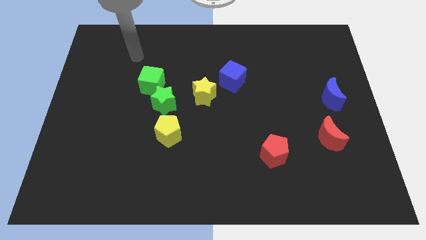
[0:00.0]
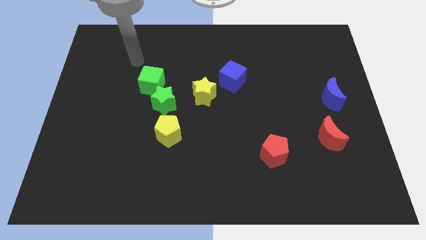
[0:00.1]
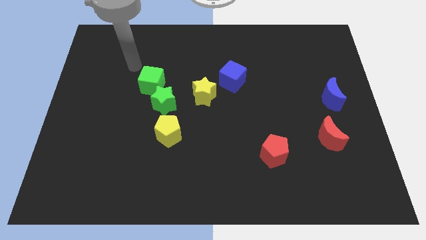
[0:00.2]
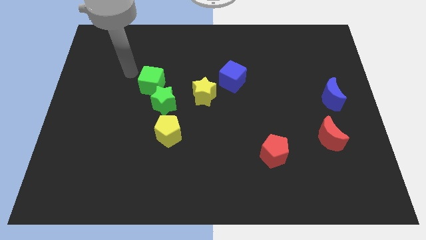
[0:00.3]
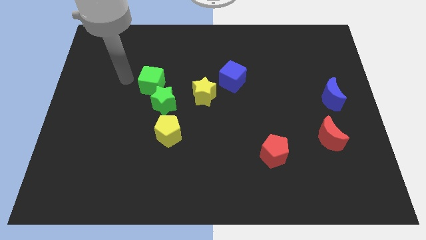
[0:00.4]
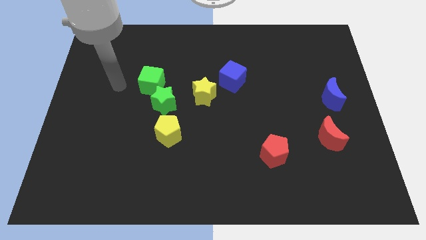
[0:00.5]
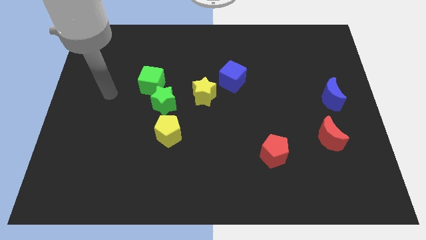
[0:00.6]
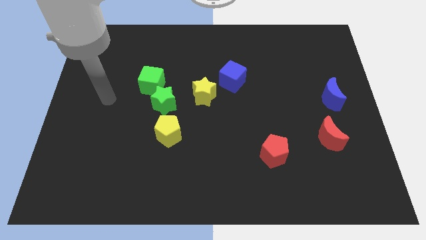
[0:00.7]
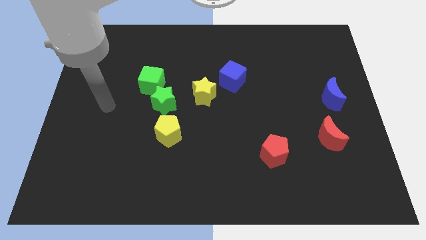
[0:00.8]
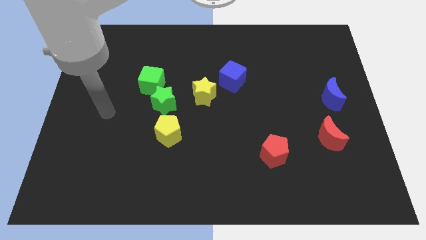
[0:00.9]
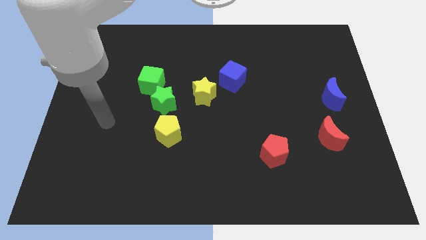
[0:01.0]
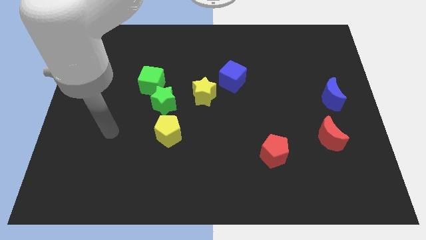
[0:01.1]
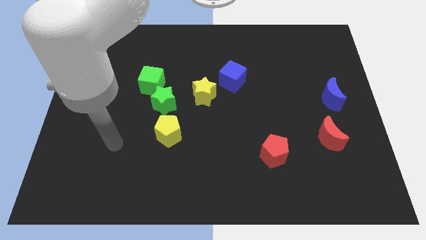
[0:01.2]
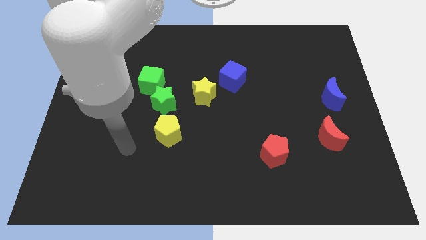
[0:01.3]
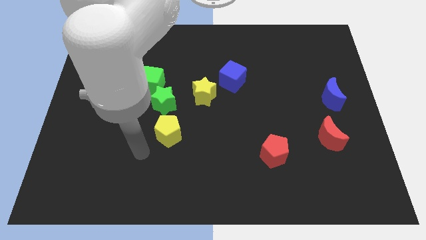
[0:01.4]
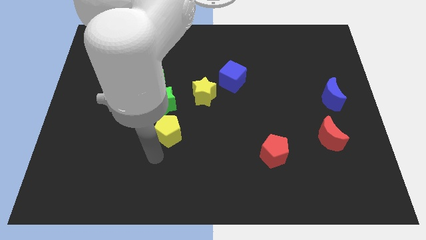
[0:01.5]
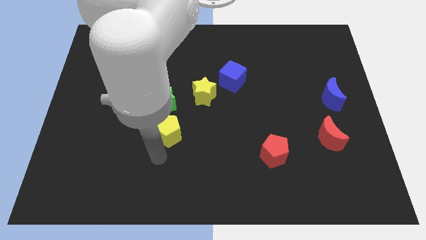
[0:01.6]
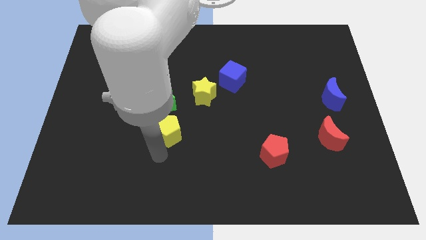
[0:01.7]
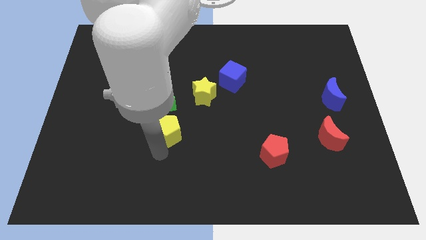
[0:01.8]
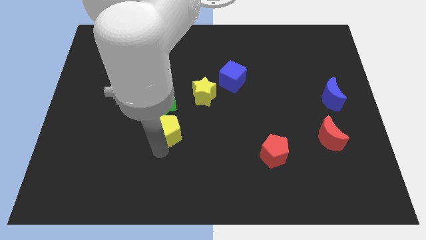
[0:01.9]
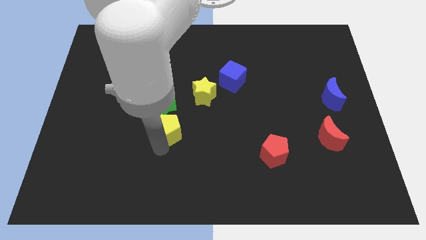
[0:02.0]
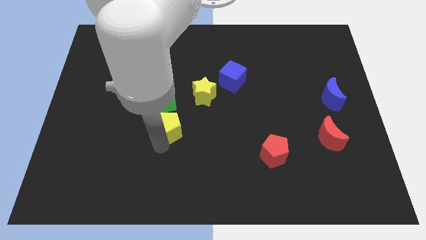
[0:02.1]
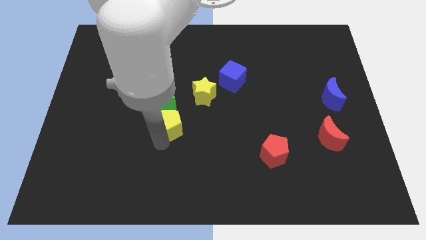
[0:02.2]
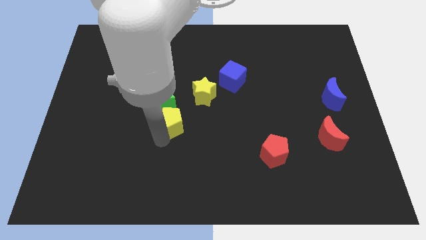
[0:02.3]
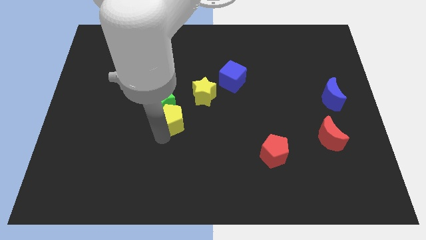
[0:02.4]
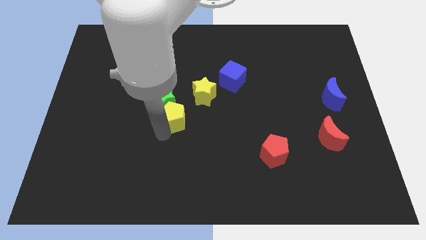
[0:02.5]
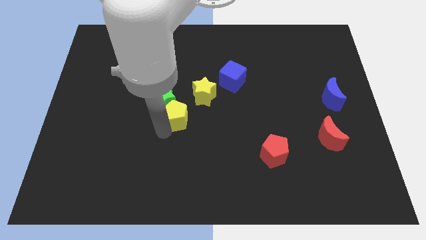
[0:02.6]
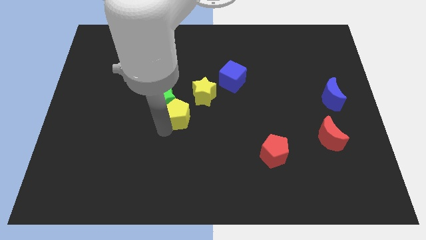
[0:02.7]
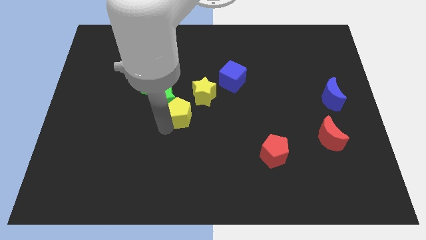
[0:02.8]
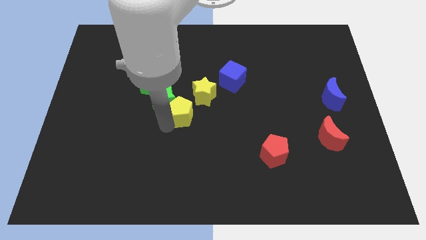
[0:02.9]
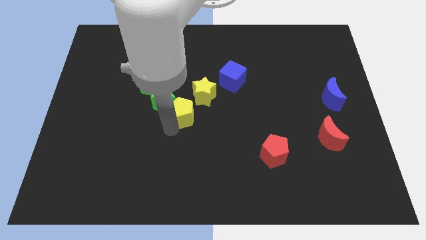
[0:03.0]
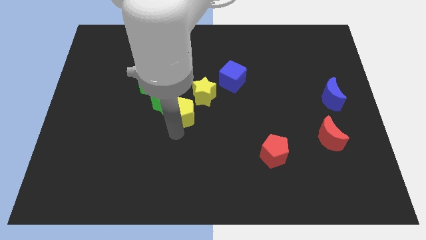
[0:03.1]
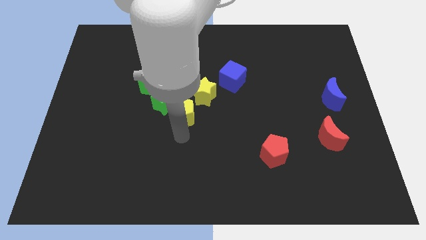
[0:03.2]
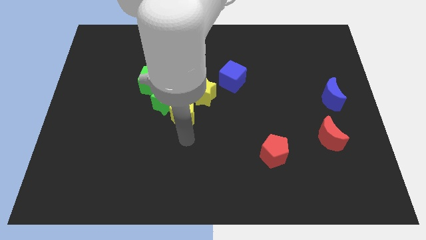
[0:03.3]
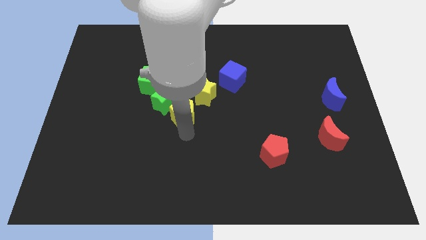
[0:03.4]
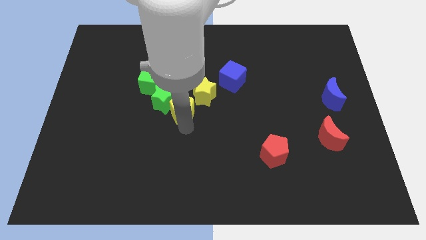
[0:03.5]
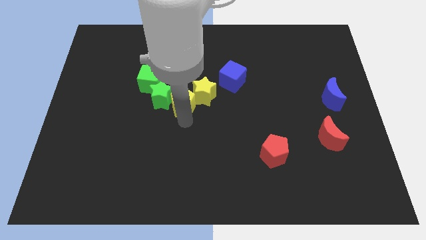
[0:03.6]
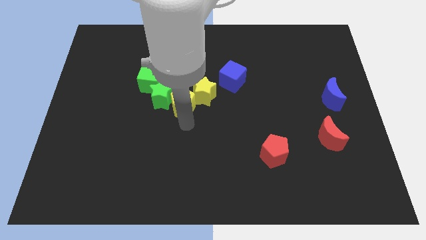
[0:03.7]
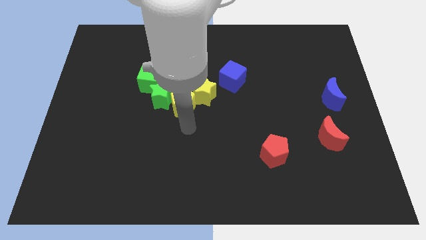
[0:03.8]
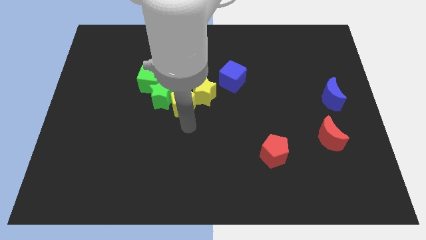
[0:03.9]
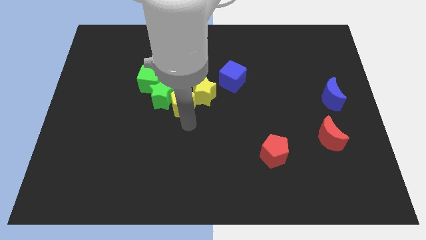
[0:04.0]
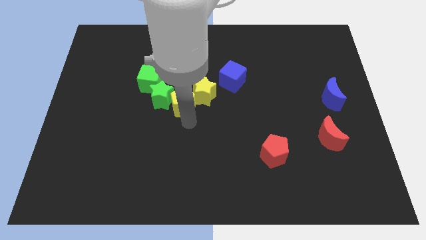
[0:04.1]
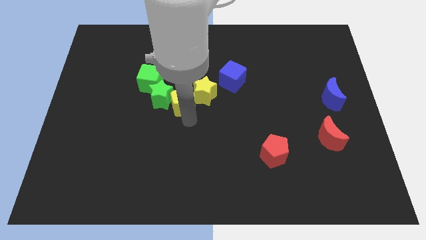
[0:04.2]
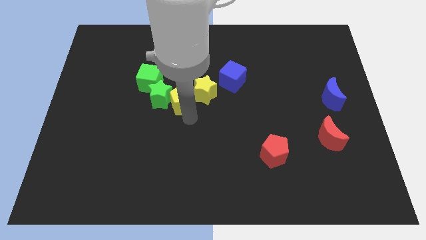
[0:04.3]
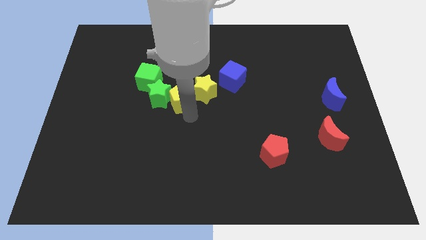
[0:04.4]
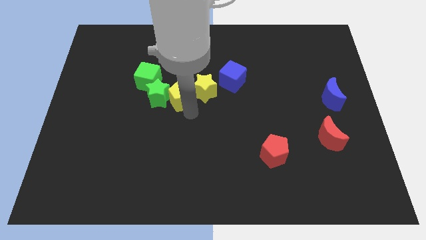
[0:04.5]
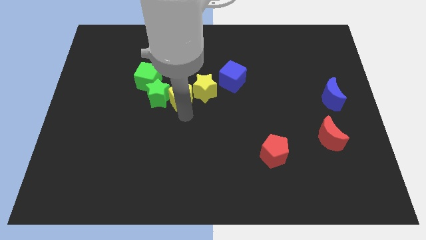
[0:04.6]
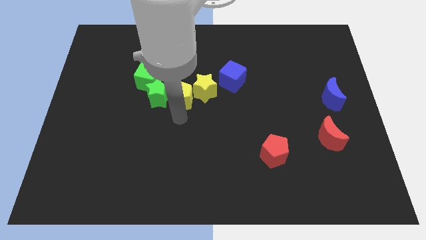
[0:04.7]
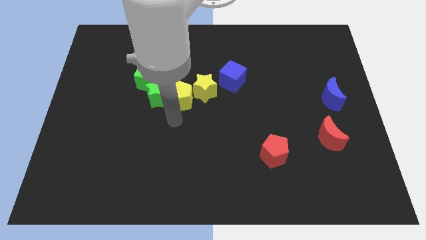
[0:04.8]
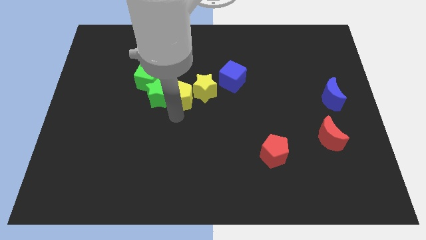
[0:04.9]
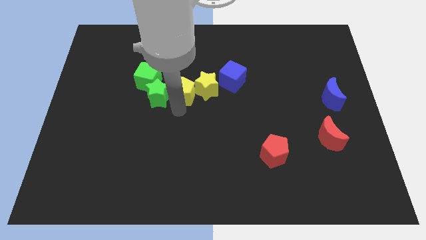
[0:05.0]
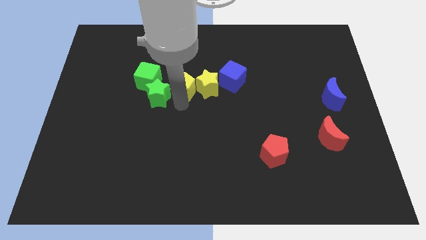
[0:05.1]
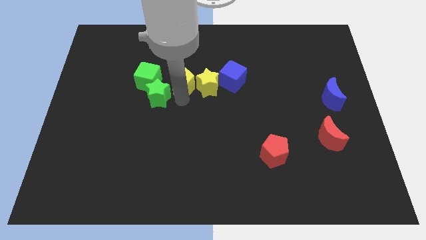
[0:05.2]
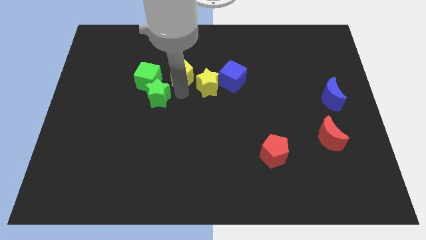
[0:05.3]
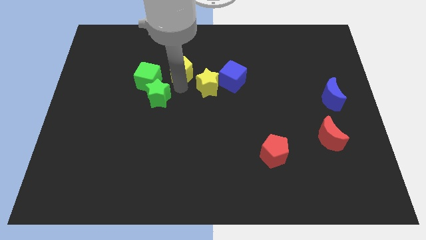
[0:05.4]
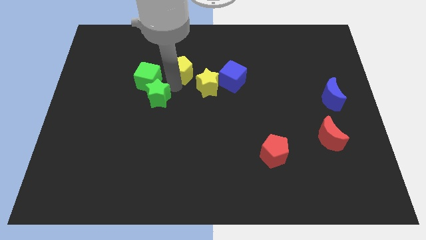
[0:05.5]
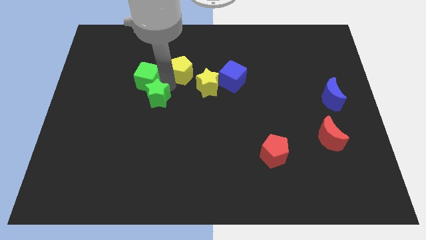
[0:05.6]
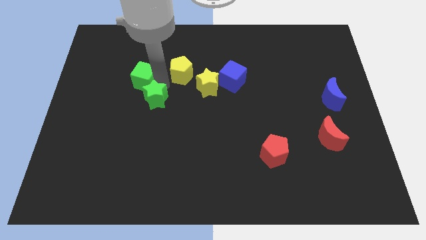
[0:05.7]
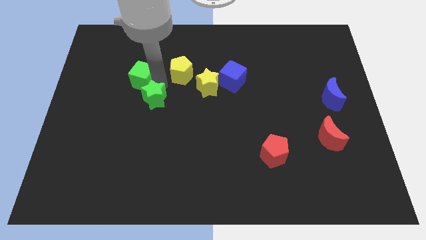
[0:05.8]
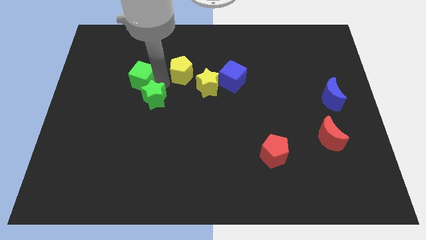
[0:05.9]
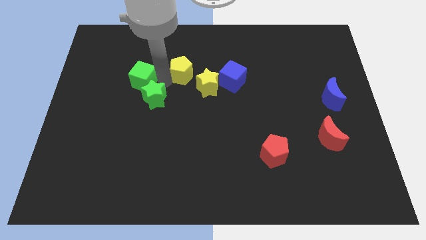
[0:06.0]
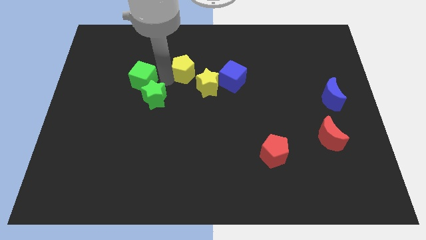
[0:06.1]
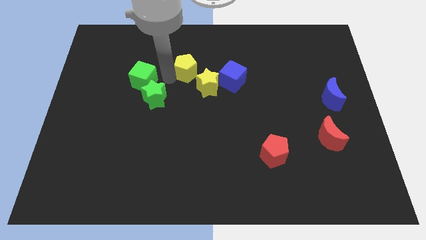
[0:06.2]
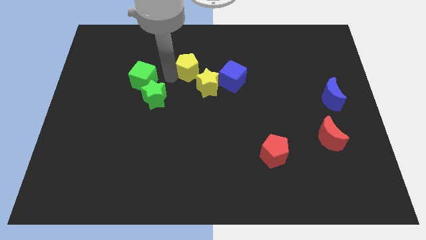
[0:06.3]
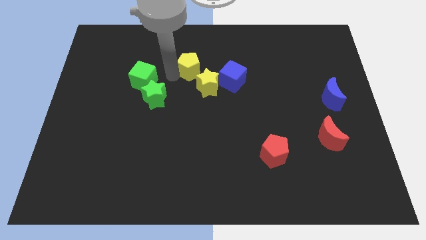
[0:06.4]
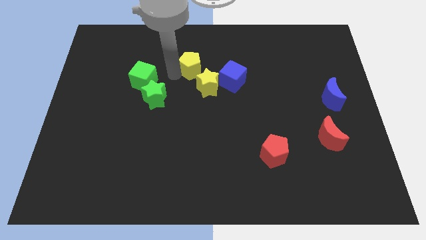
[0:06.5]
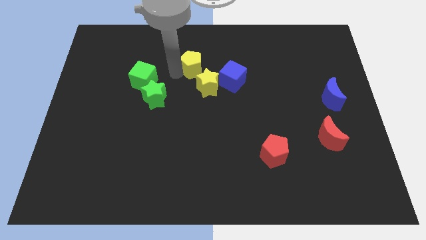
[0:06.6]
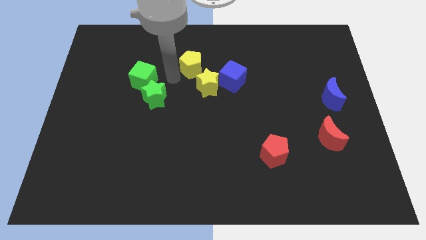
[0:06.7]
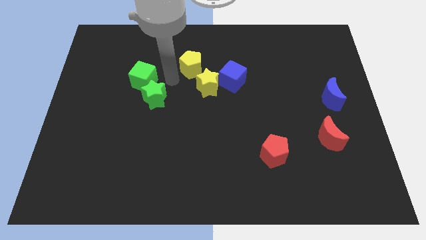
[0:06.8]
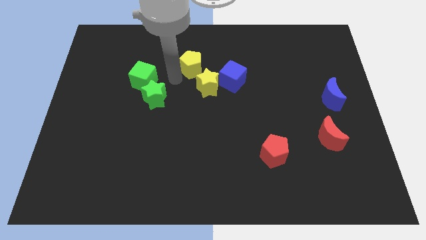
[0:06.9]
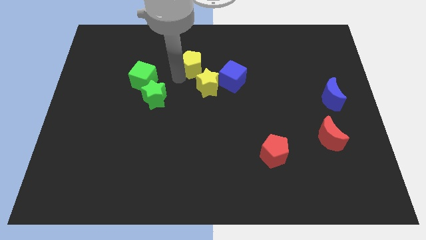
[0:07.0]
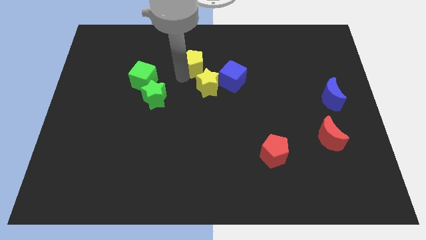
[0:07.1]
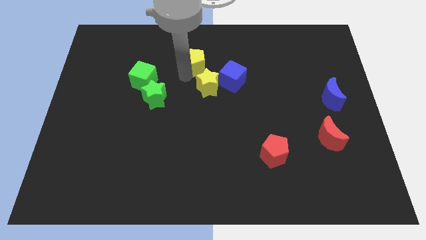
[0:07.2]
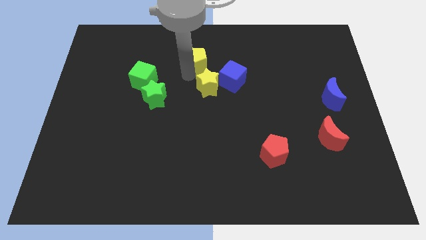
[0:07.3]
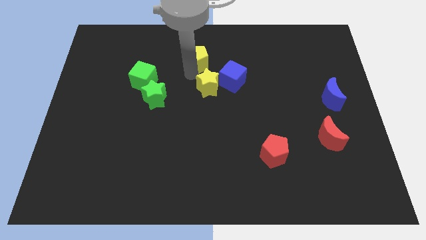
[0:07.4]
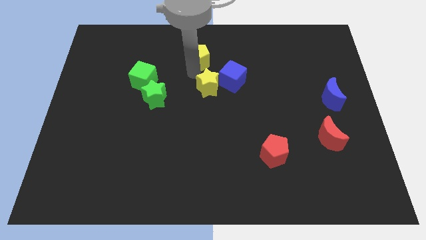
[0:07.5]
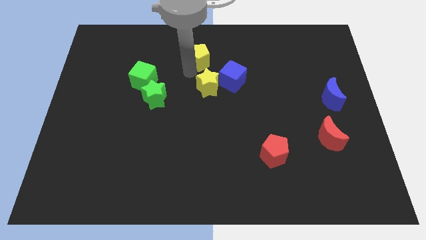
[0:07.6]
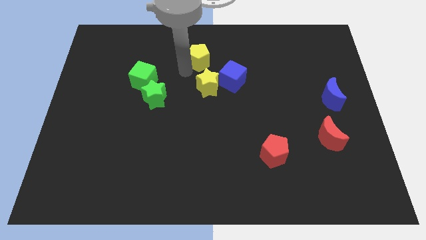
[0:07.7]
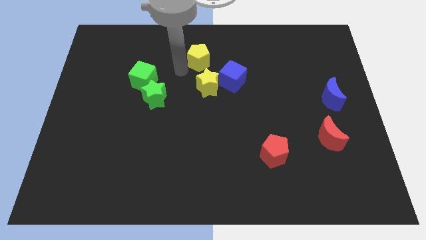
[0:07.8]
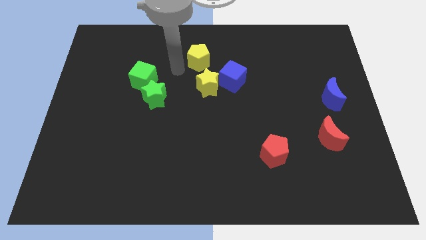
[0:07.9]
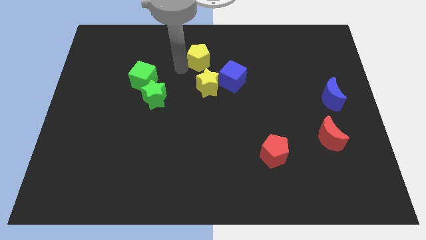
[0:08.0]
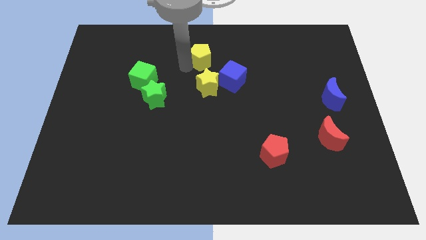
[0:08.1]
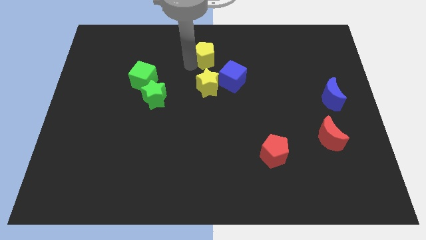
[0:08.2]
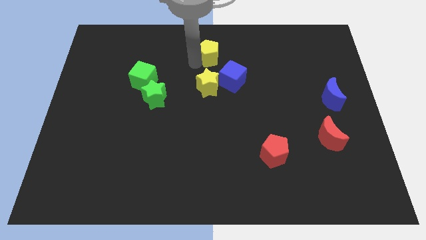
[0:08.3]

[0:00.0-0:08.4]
push the yellow pentagon to the towards your base
